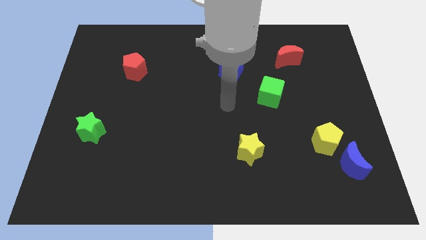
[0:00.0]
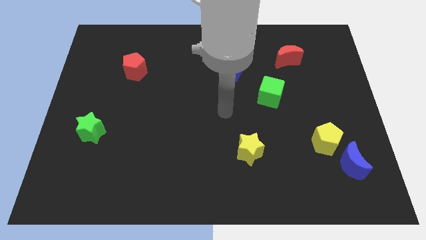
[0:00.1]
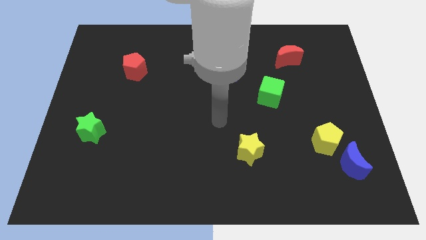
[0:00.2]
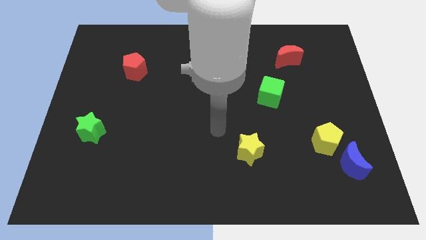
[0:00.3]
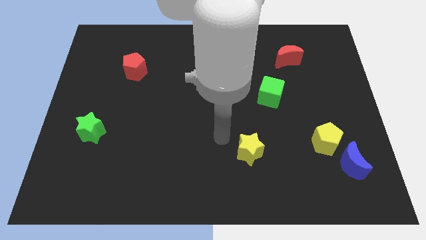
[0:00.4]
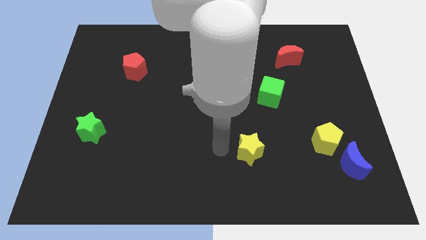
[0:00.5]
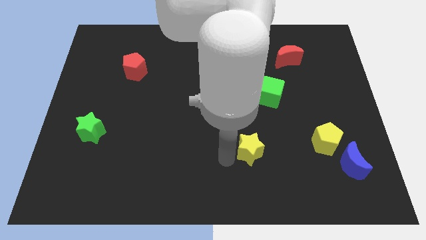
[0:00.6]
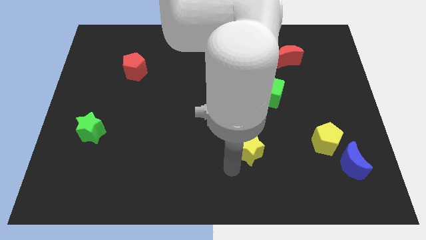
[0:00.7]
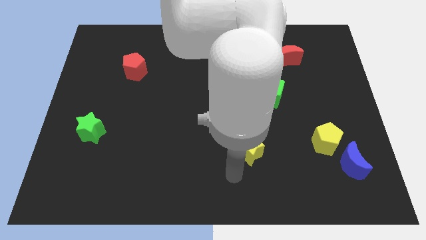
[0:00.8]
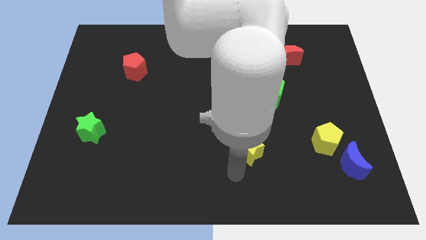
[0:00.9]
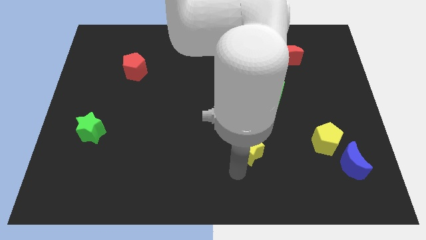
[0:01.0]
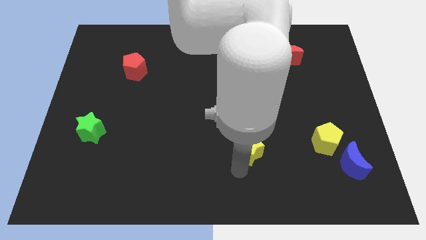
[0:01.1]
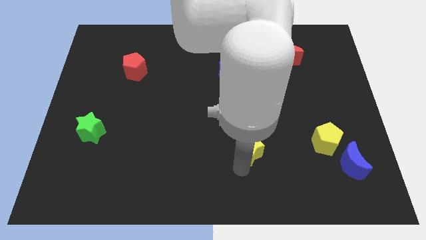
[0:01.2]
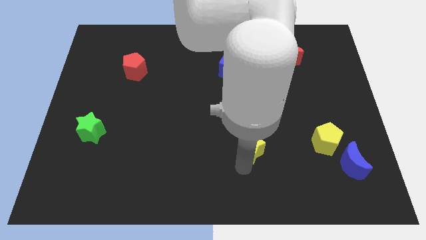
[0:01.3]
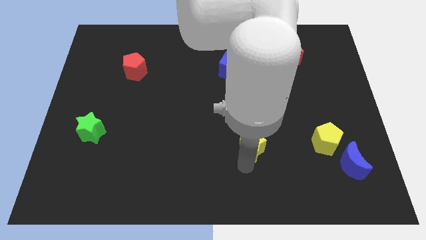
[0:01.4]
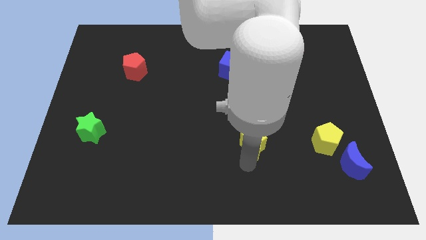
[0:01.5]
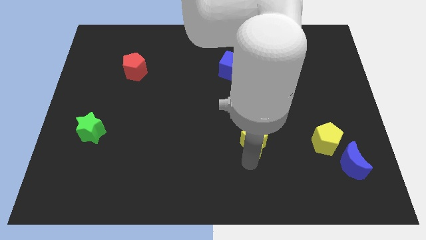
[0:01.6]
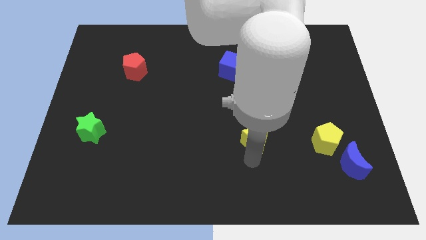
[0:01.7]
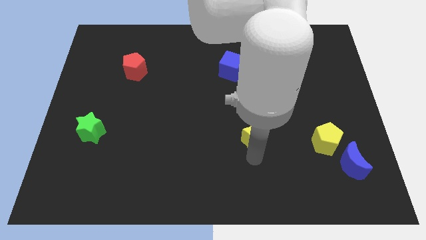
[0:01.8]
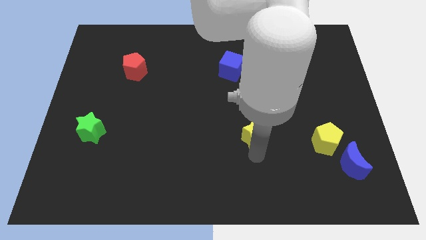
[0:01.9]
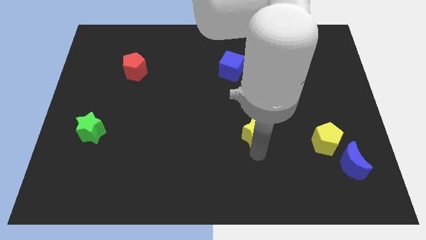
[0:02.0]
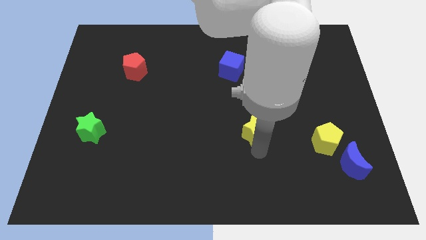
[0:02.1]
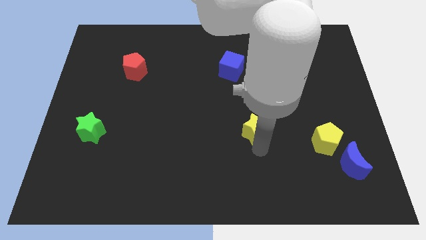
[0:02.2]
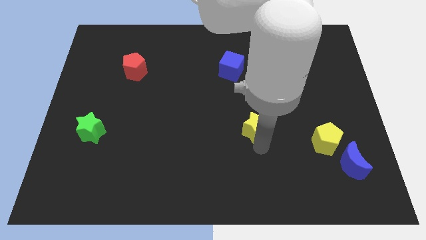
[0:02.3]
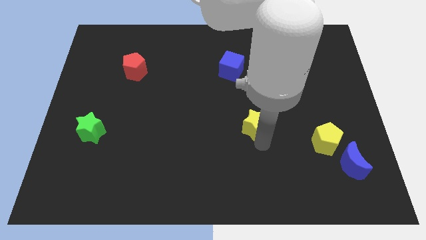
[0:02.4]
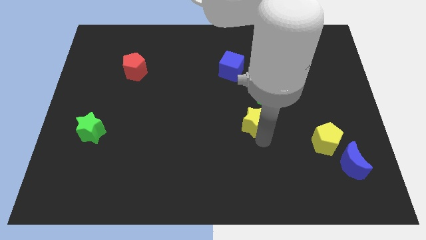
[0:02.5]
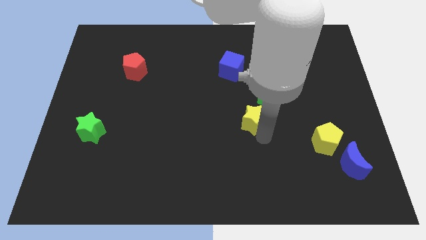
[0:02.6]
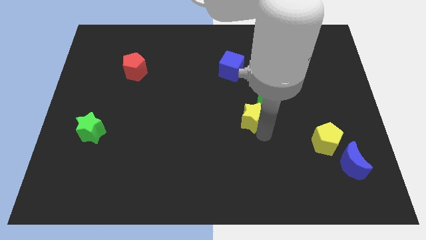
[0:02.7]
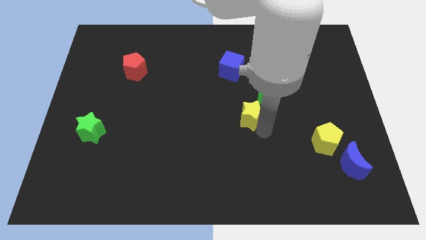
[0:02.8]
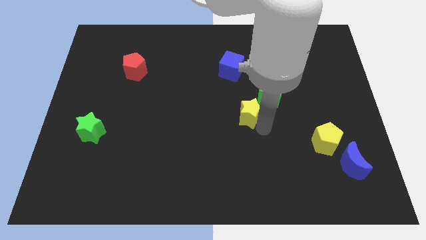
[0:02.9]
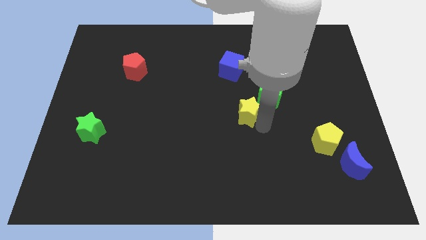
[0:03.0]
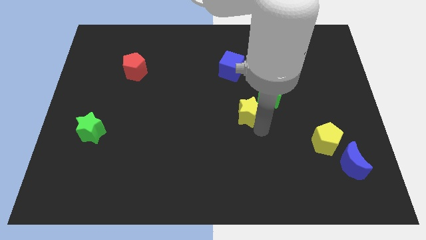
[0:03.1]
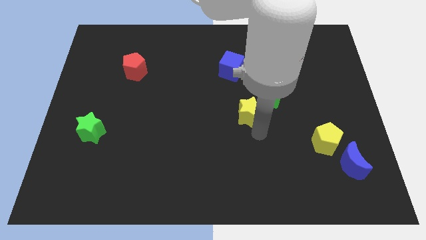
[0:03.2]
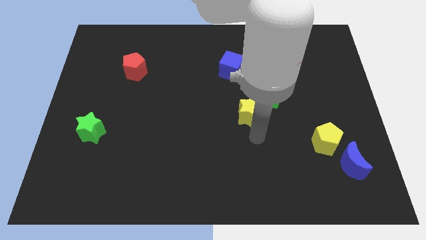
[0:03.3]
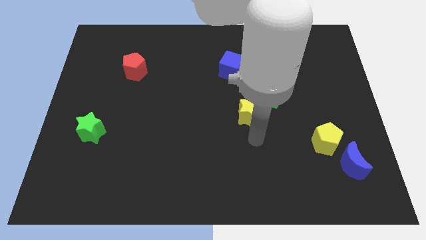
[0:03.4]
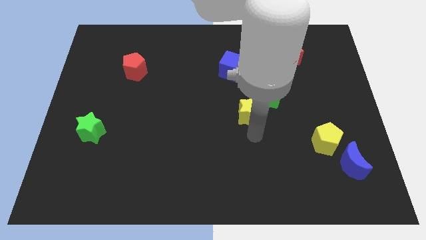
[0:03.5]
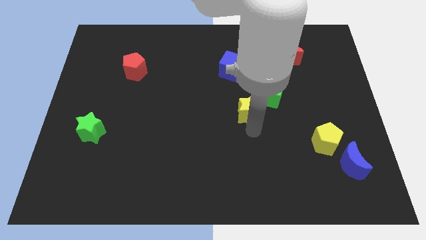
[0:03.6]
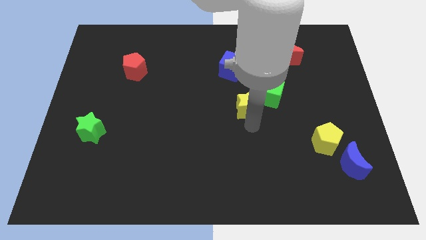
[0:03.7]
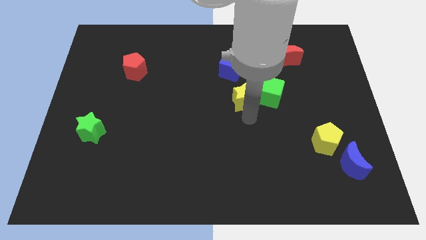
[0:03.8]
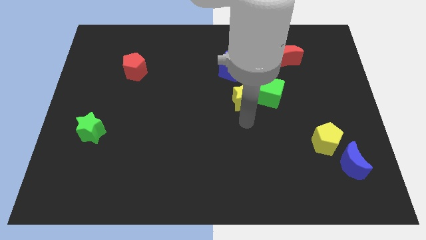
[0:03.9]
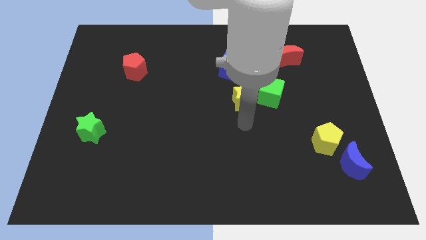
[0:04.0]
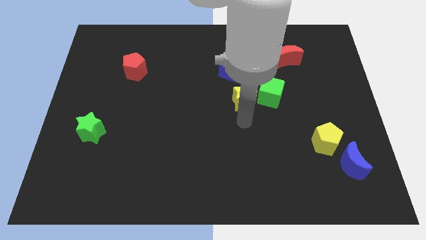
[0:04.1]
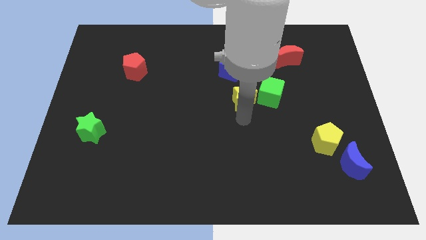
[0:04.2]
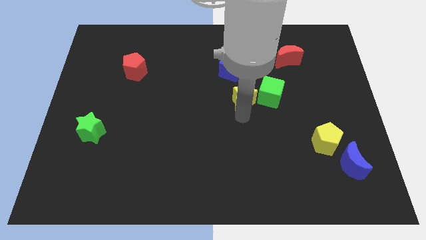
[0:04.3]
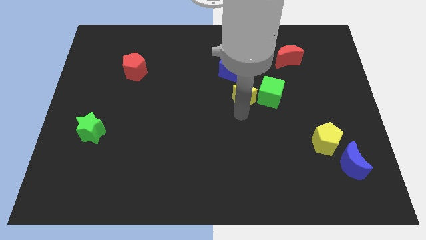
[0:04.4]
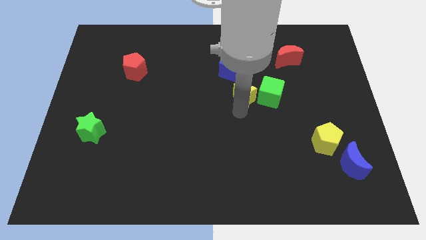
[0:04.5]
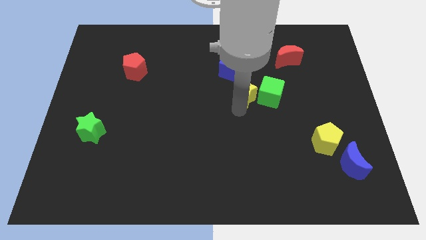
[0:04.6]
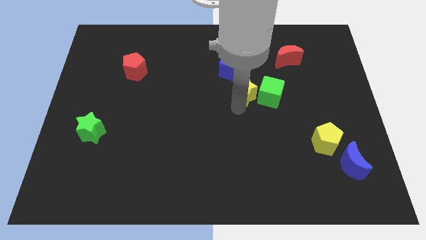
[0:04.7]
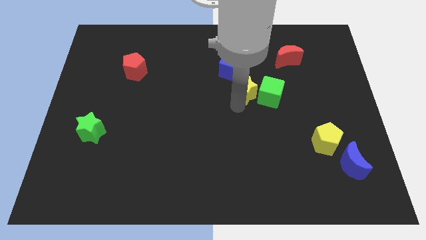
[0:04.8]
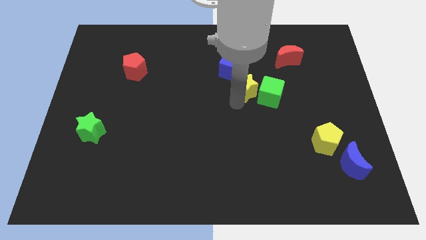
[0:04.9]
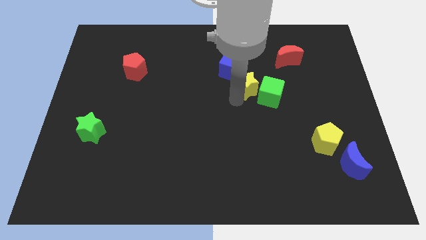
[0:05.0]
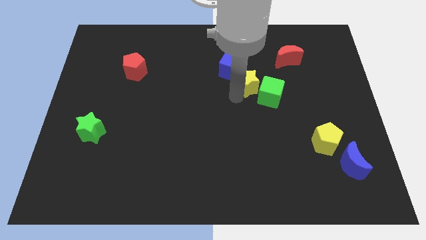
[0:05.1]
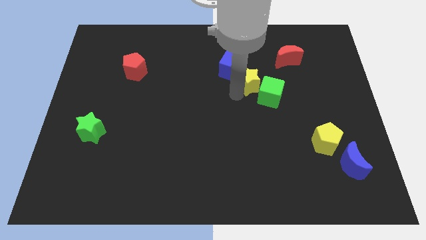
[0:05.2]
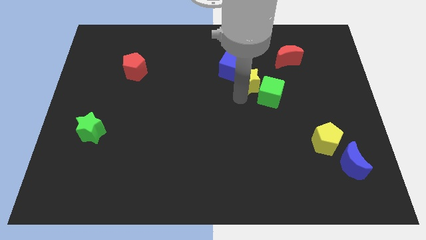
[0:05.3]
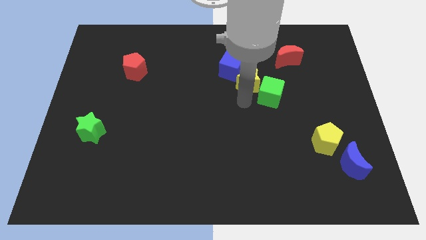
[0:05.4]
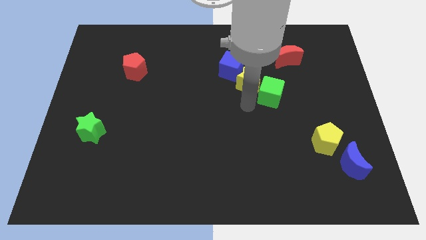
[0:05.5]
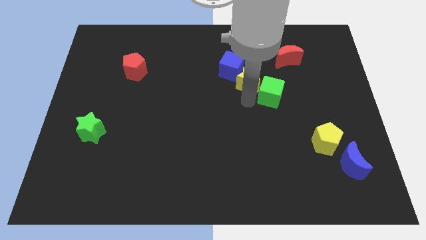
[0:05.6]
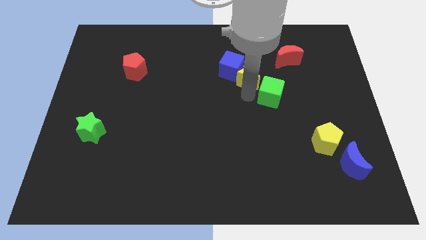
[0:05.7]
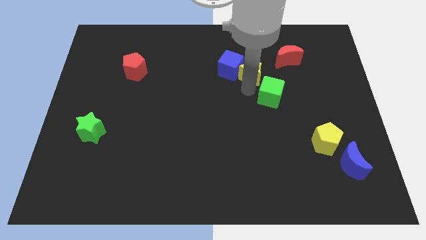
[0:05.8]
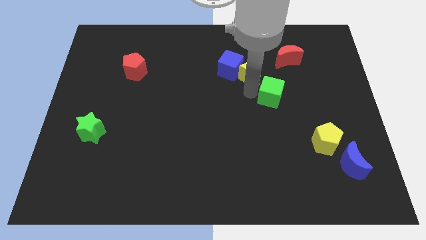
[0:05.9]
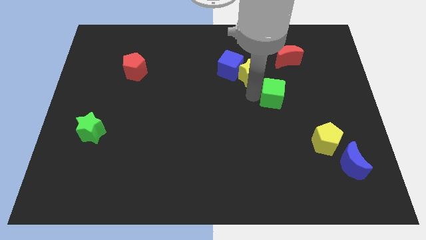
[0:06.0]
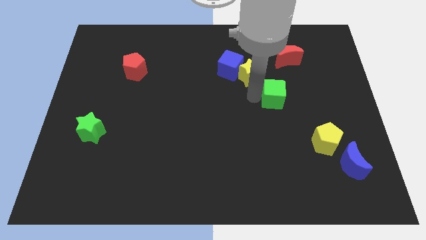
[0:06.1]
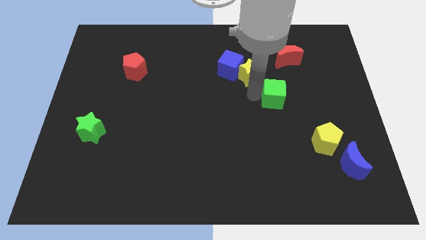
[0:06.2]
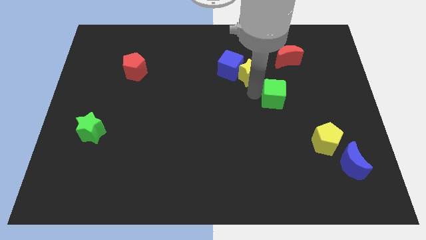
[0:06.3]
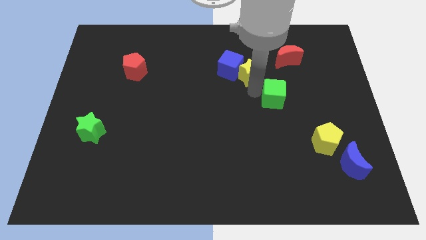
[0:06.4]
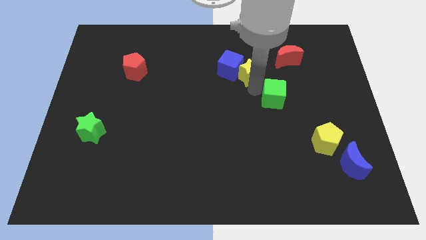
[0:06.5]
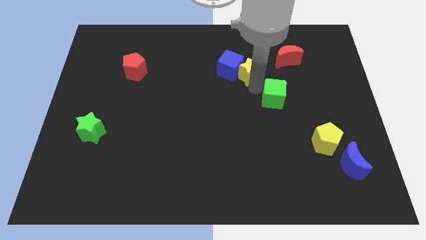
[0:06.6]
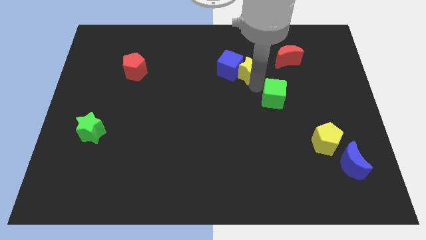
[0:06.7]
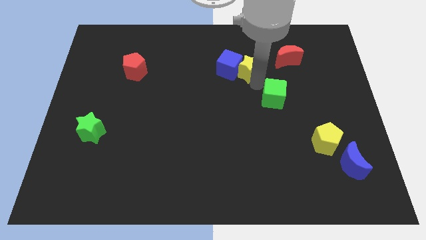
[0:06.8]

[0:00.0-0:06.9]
put the yellow star to the top right side of the blue cube
